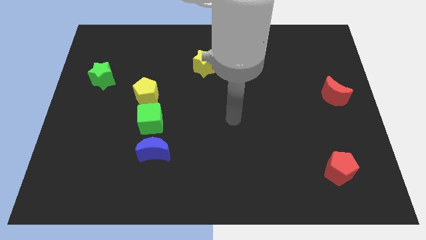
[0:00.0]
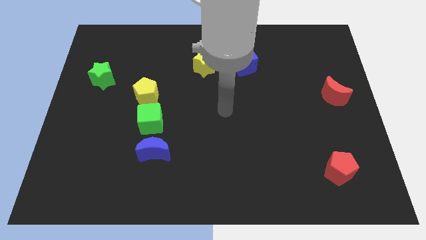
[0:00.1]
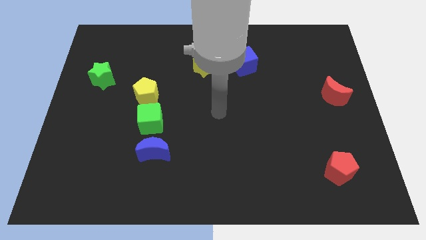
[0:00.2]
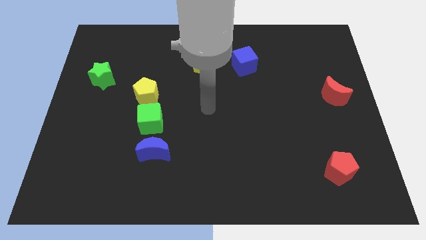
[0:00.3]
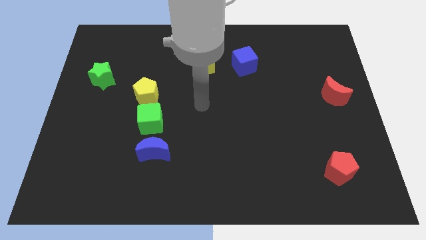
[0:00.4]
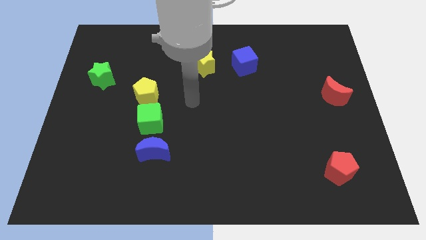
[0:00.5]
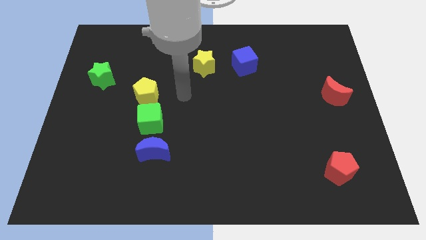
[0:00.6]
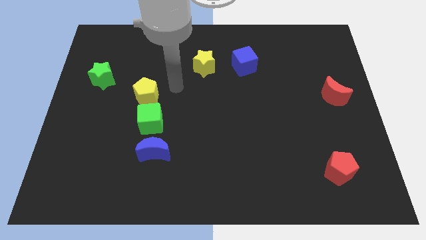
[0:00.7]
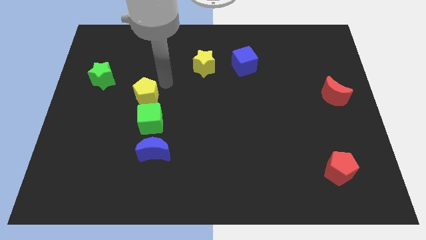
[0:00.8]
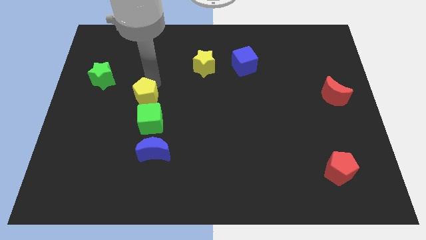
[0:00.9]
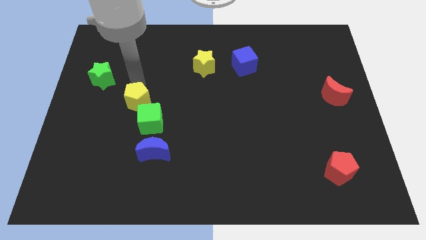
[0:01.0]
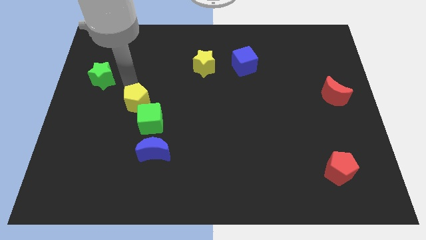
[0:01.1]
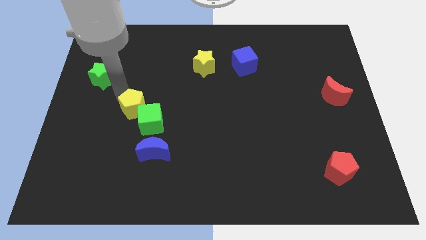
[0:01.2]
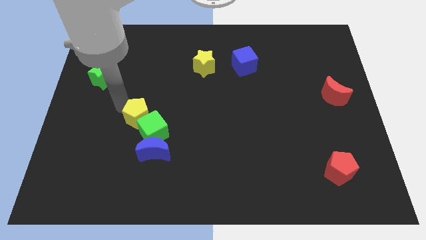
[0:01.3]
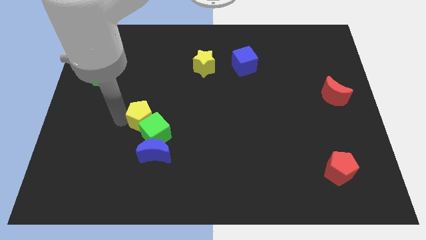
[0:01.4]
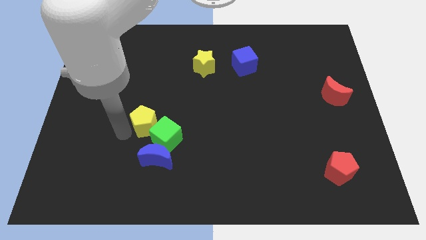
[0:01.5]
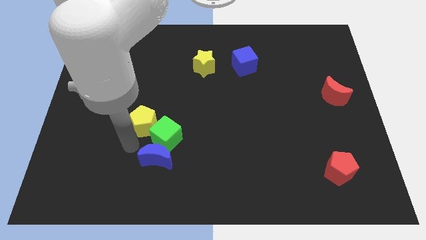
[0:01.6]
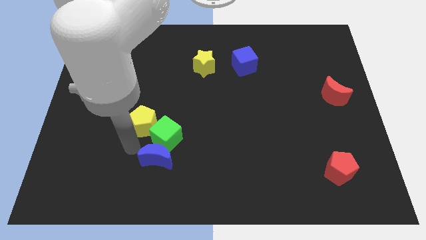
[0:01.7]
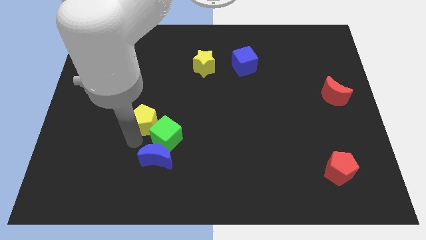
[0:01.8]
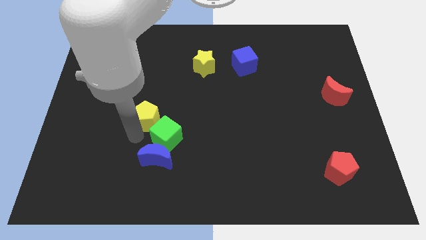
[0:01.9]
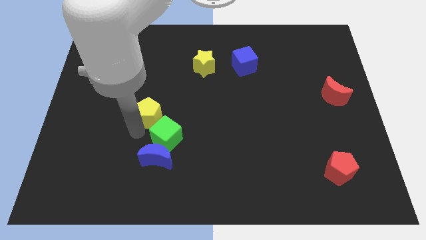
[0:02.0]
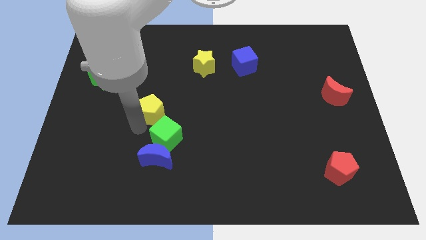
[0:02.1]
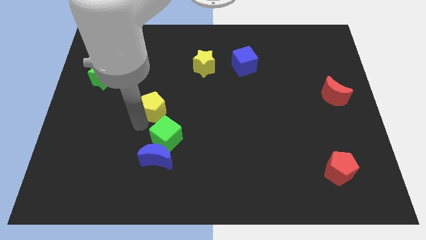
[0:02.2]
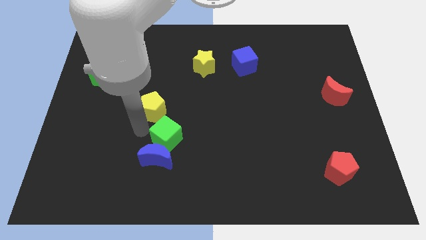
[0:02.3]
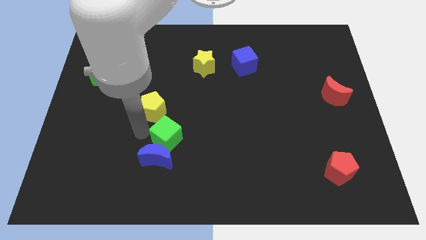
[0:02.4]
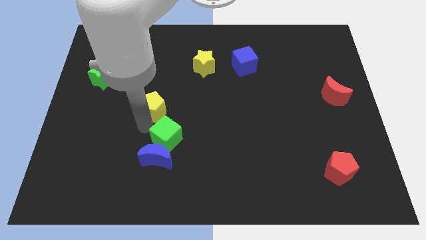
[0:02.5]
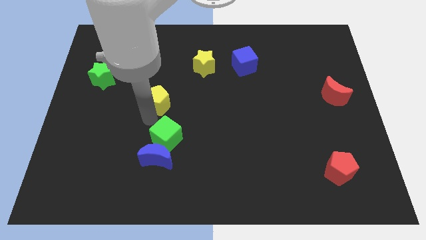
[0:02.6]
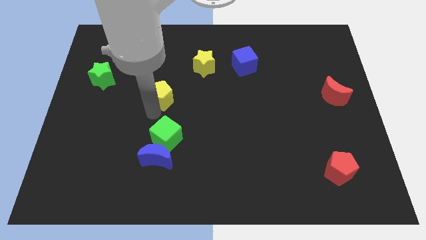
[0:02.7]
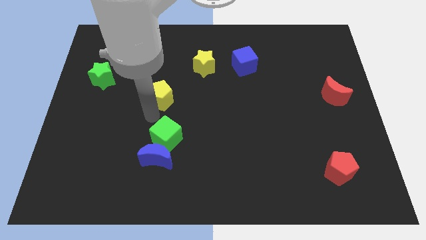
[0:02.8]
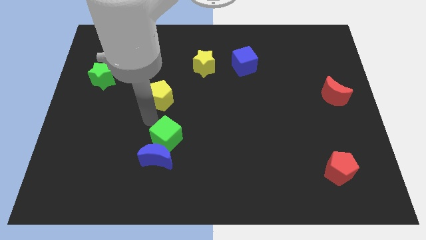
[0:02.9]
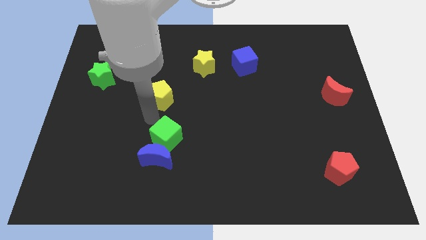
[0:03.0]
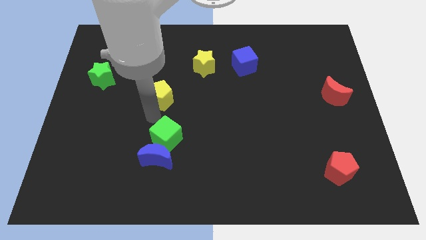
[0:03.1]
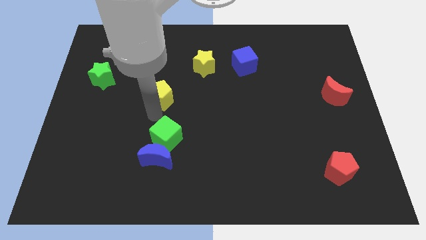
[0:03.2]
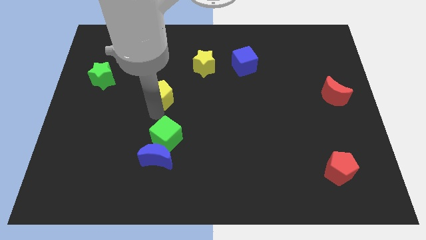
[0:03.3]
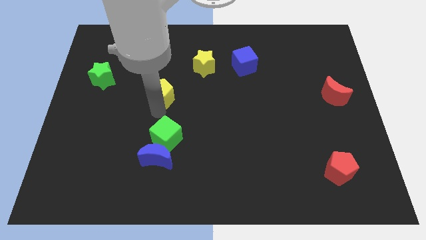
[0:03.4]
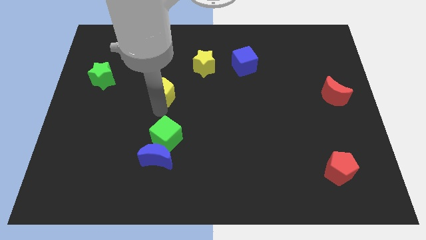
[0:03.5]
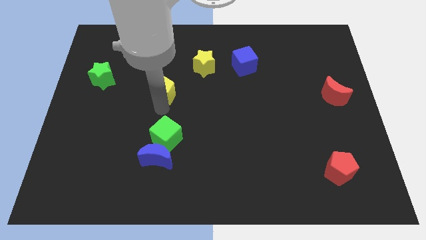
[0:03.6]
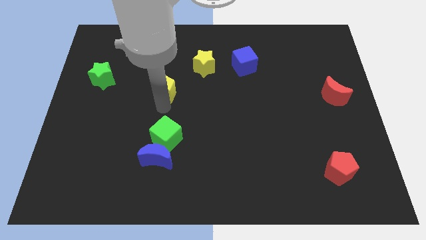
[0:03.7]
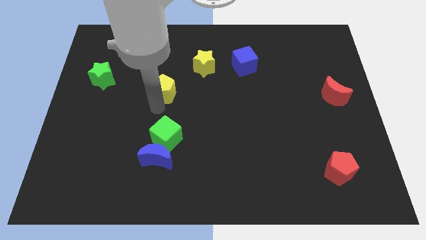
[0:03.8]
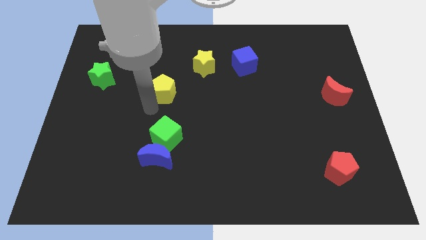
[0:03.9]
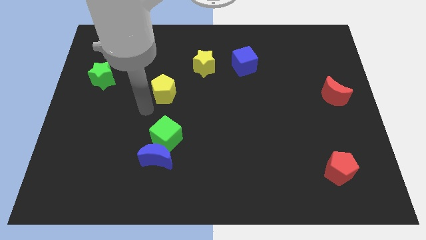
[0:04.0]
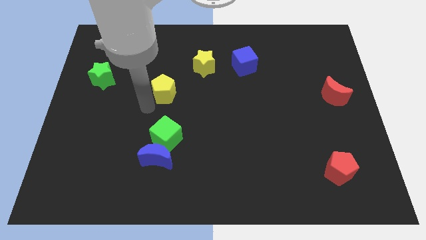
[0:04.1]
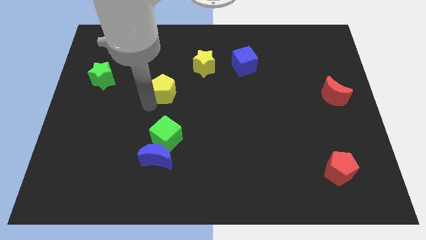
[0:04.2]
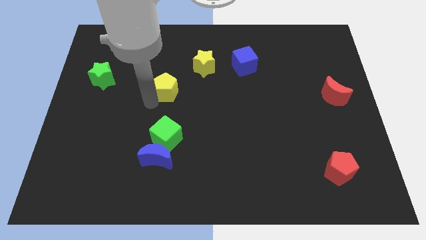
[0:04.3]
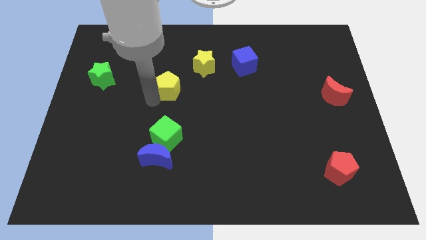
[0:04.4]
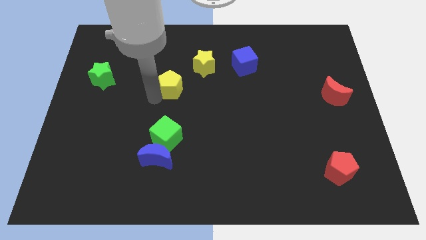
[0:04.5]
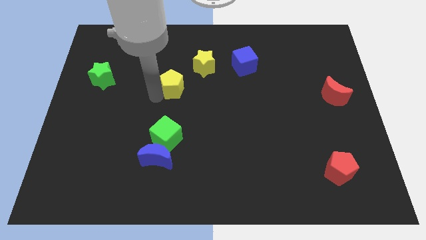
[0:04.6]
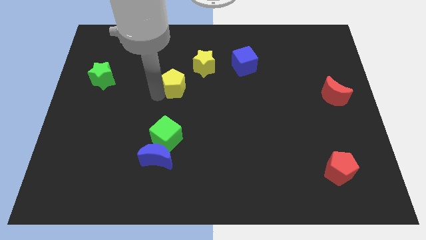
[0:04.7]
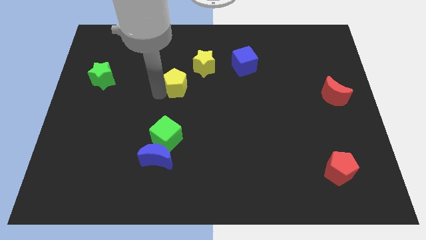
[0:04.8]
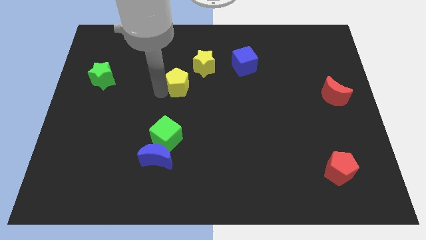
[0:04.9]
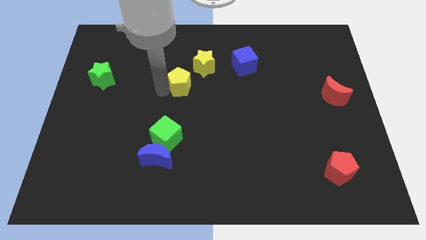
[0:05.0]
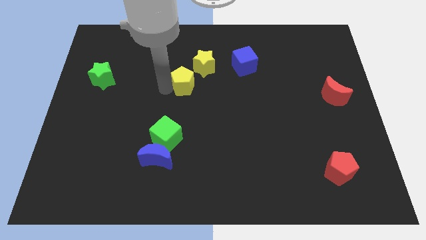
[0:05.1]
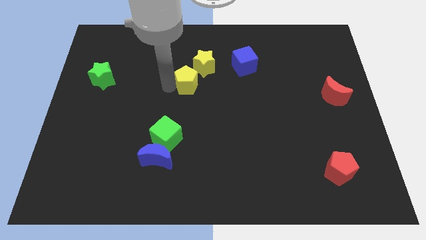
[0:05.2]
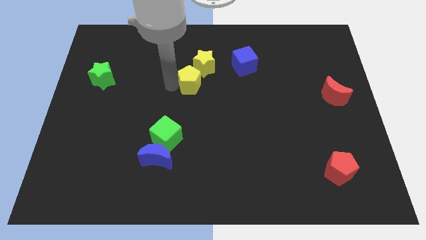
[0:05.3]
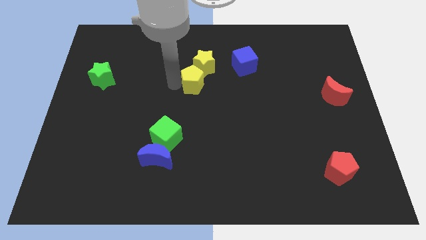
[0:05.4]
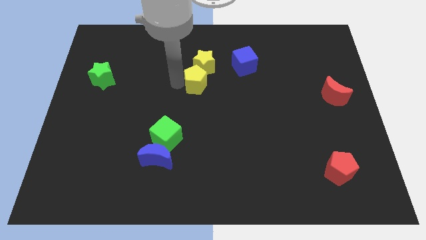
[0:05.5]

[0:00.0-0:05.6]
slide the yellow pentagon close to the yellow star

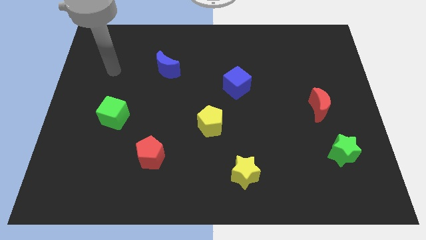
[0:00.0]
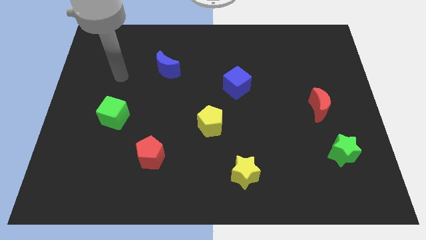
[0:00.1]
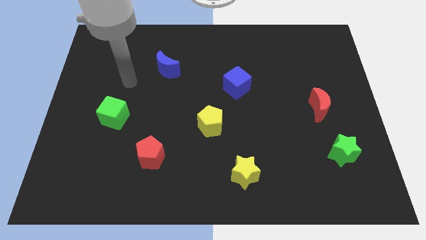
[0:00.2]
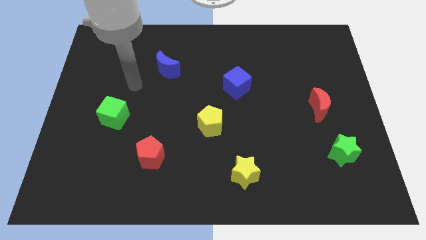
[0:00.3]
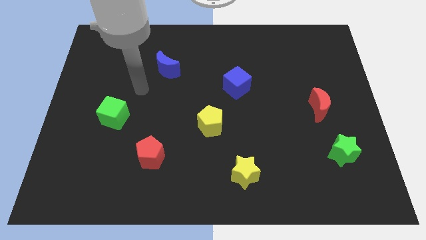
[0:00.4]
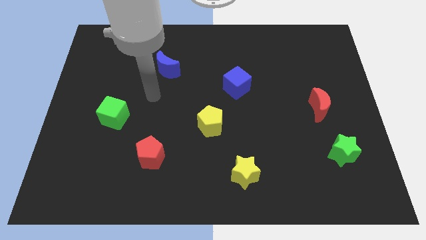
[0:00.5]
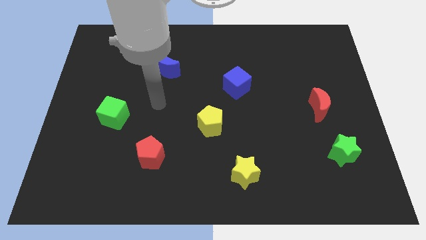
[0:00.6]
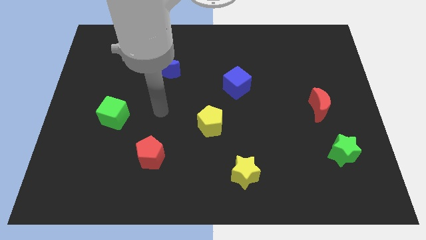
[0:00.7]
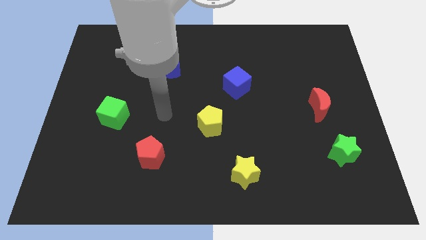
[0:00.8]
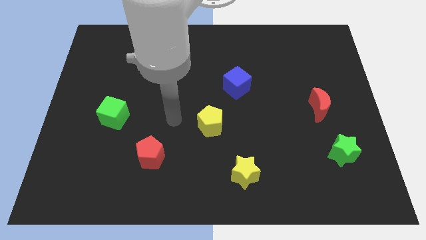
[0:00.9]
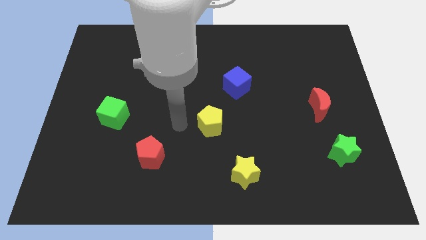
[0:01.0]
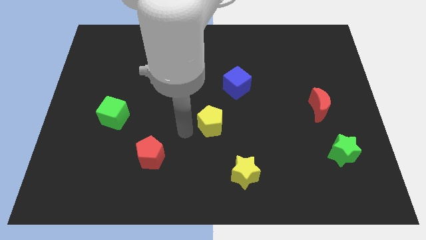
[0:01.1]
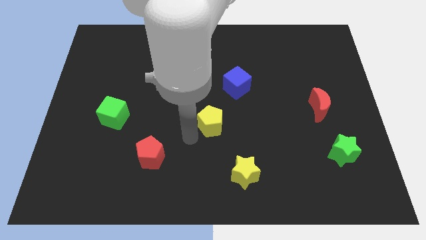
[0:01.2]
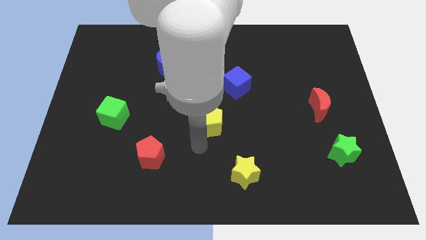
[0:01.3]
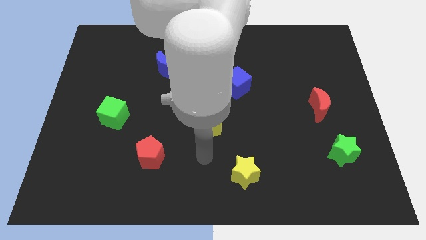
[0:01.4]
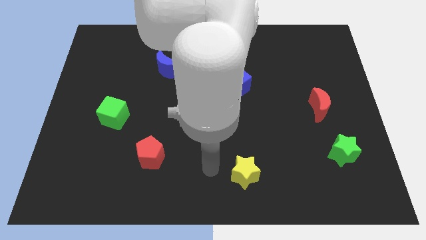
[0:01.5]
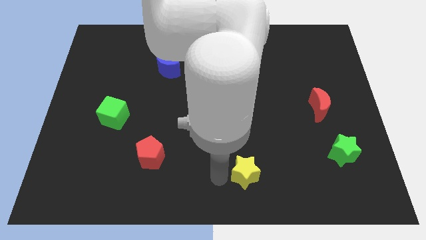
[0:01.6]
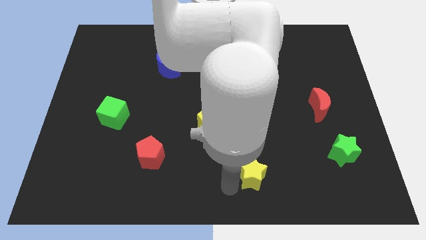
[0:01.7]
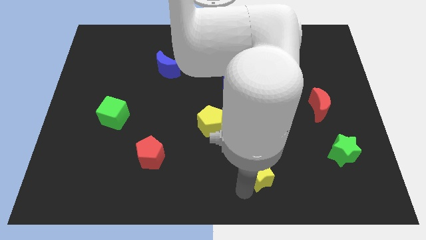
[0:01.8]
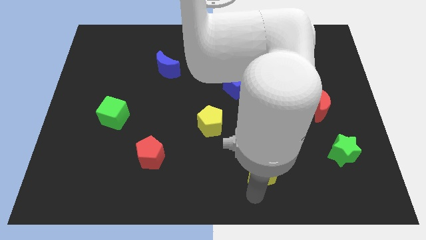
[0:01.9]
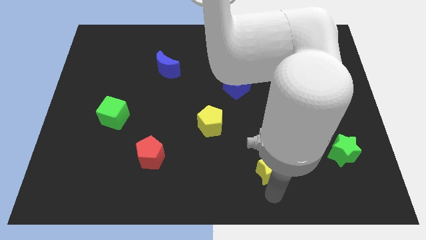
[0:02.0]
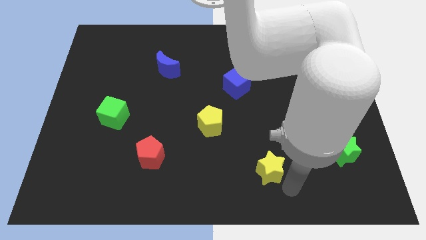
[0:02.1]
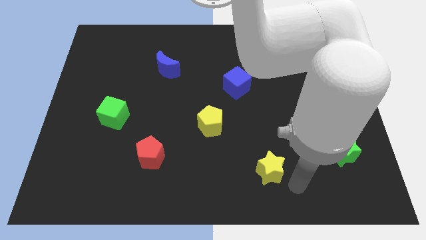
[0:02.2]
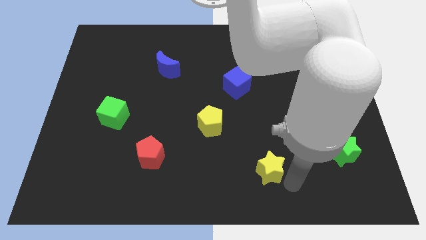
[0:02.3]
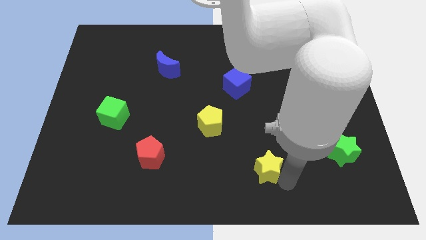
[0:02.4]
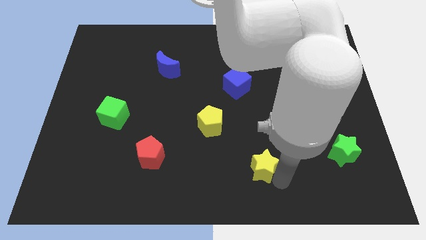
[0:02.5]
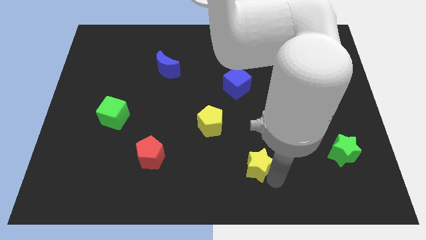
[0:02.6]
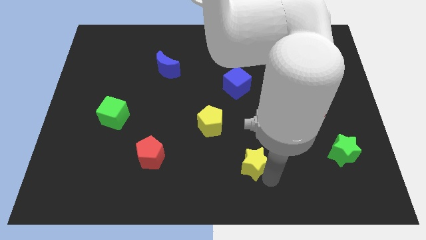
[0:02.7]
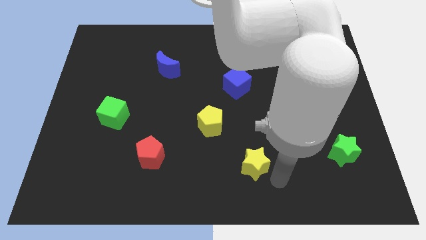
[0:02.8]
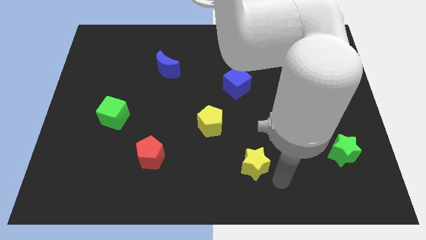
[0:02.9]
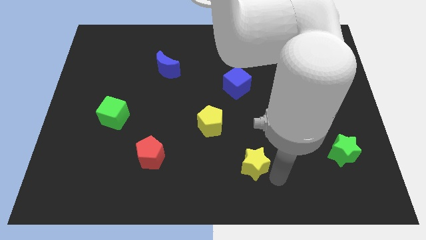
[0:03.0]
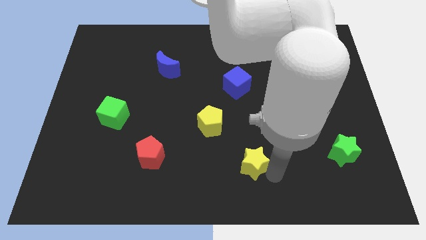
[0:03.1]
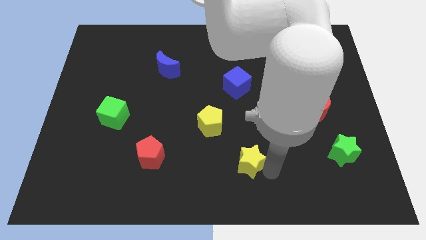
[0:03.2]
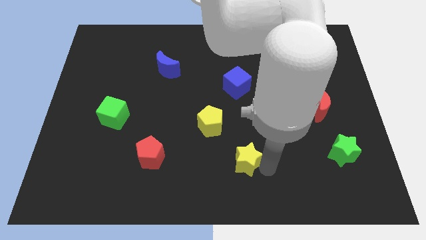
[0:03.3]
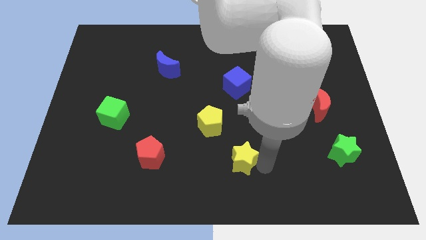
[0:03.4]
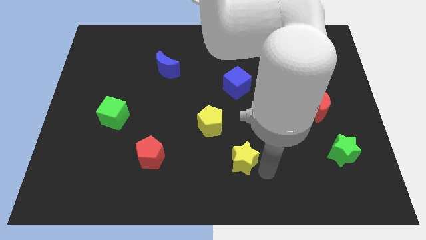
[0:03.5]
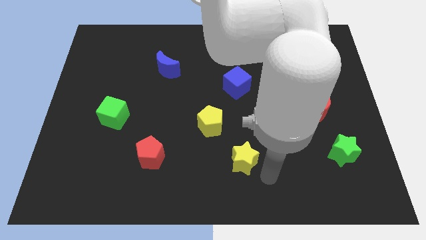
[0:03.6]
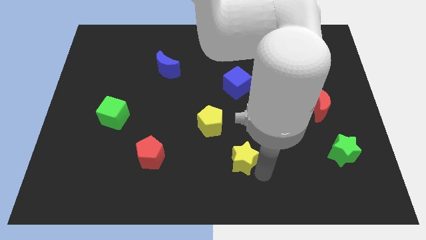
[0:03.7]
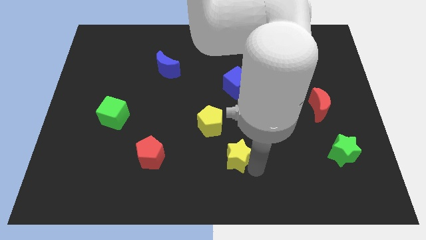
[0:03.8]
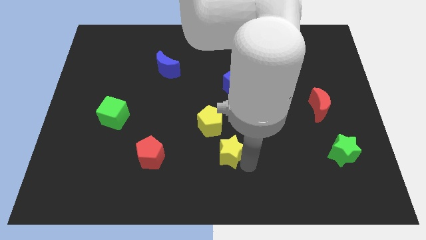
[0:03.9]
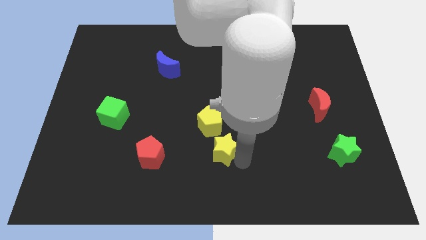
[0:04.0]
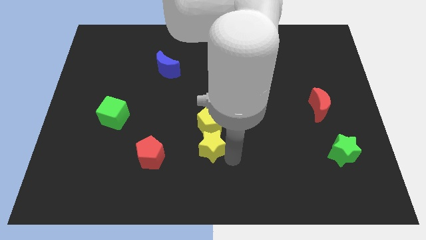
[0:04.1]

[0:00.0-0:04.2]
move the yellow star close to the yellow pentagon
